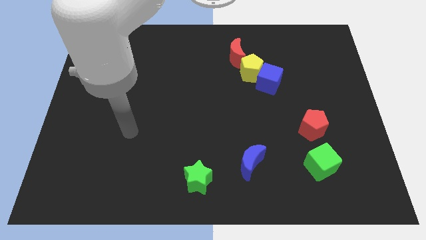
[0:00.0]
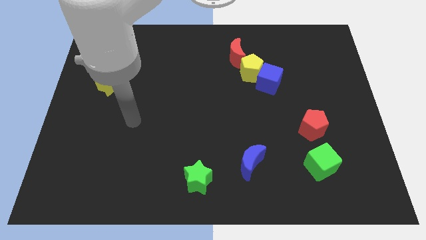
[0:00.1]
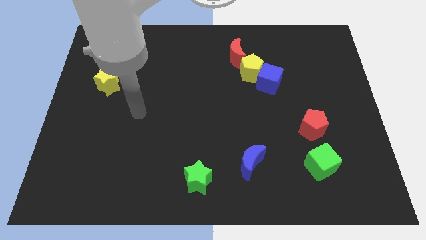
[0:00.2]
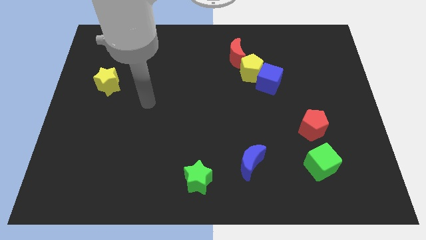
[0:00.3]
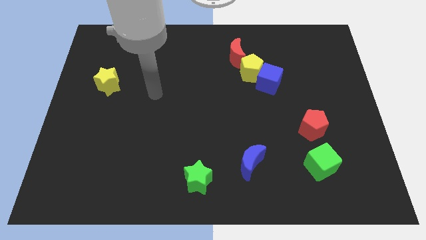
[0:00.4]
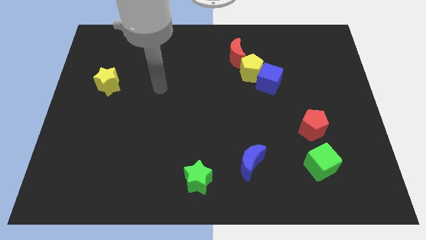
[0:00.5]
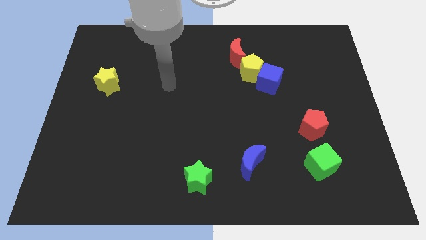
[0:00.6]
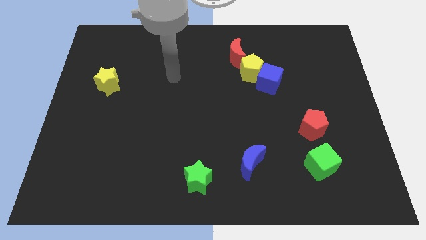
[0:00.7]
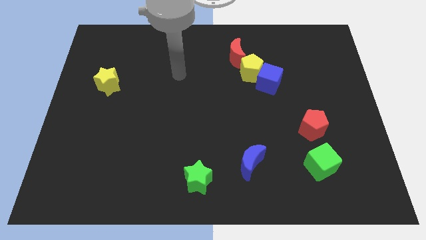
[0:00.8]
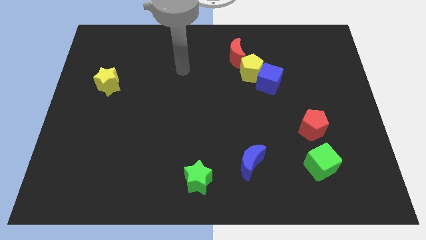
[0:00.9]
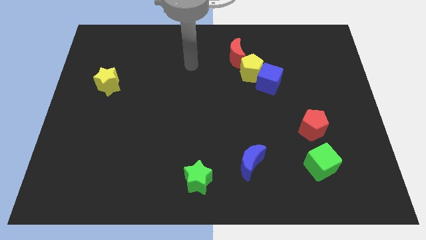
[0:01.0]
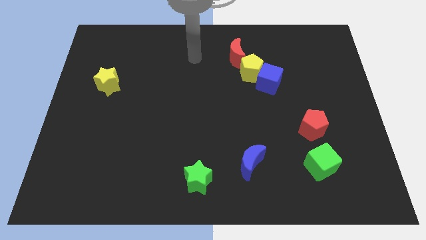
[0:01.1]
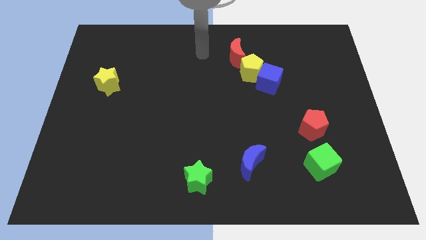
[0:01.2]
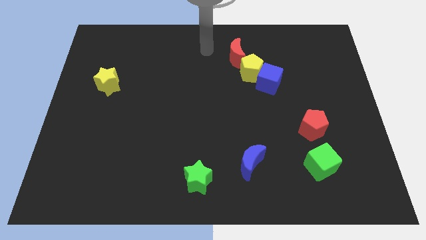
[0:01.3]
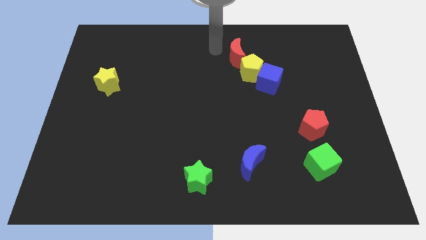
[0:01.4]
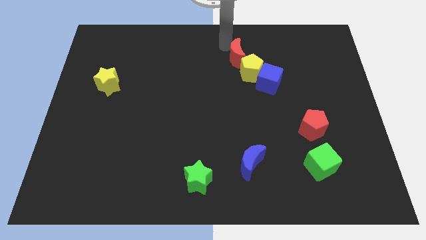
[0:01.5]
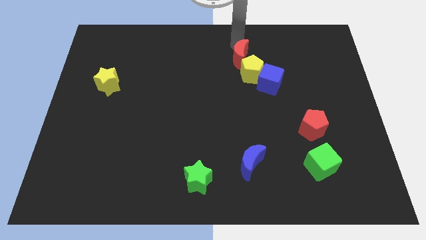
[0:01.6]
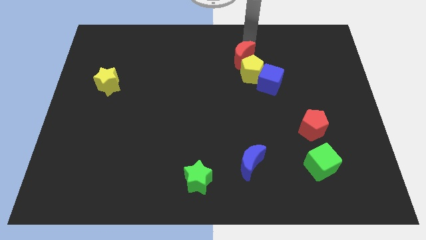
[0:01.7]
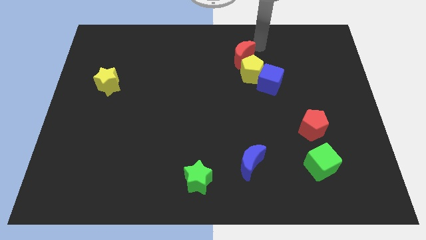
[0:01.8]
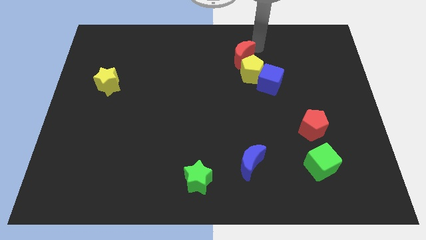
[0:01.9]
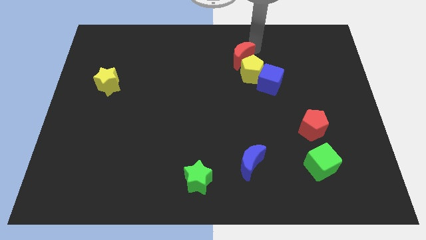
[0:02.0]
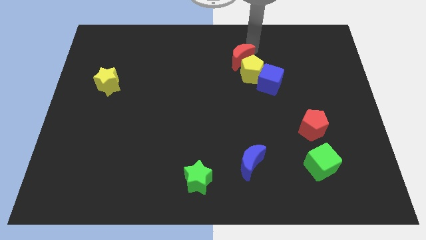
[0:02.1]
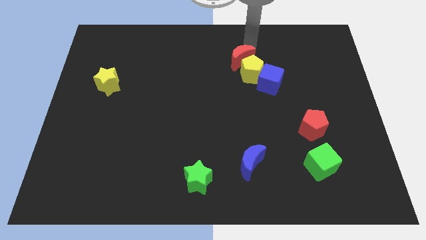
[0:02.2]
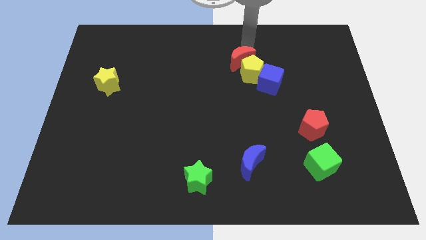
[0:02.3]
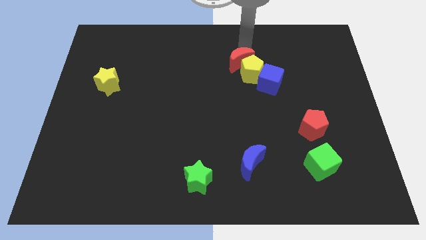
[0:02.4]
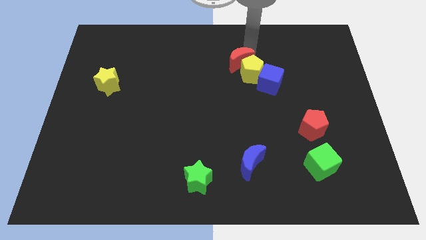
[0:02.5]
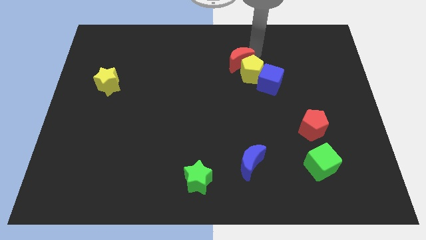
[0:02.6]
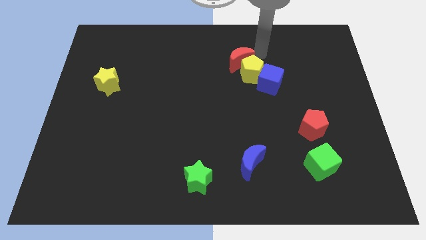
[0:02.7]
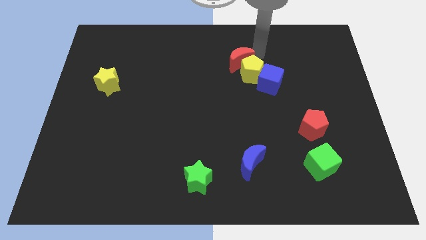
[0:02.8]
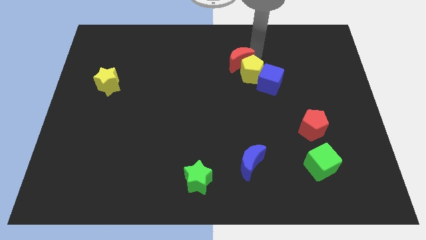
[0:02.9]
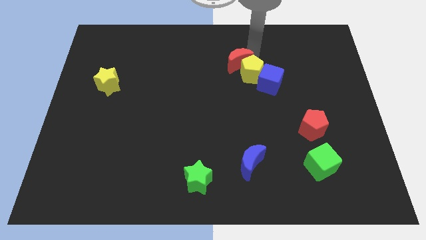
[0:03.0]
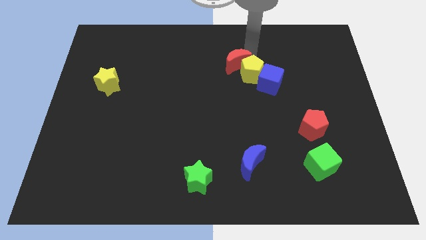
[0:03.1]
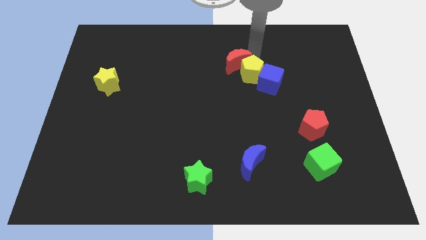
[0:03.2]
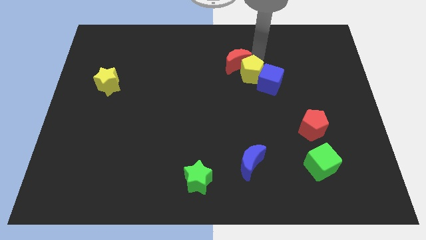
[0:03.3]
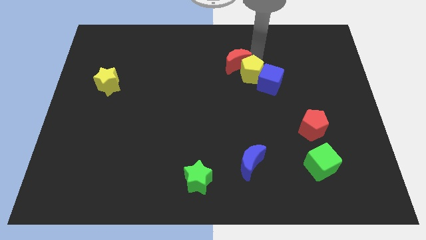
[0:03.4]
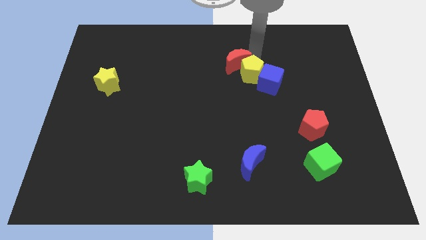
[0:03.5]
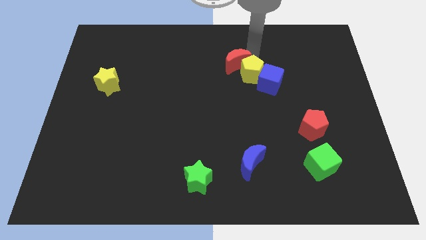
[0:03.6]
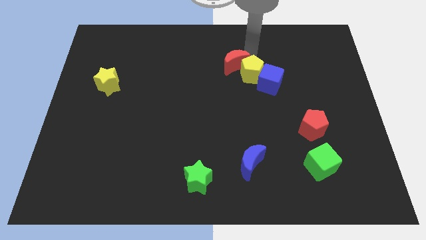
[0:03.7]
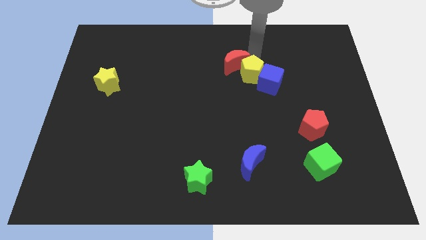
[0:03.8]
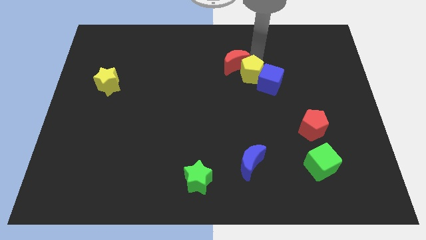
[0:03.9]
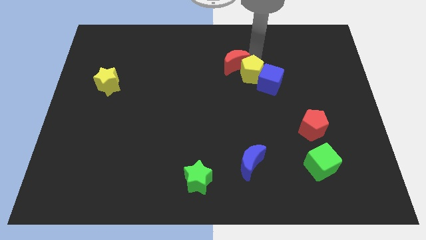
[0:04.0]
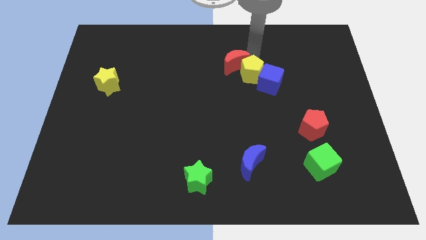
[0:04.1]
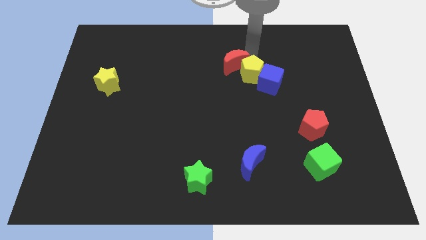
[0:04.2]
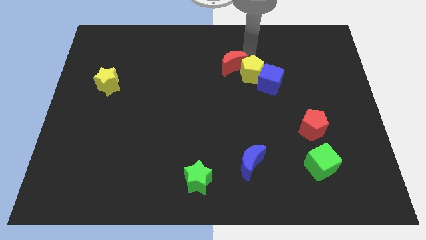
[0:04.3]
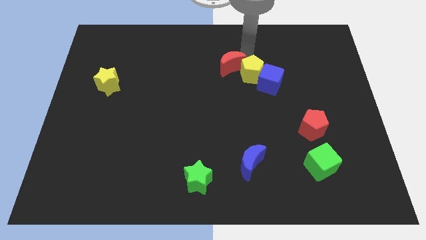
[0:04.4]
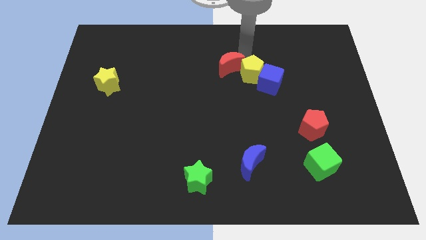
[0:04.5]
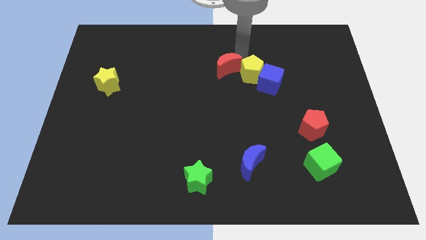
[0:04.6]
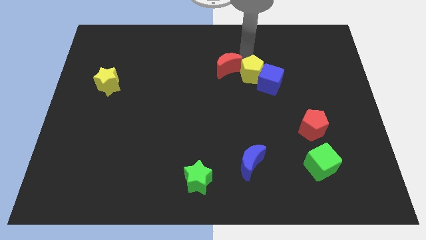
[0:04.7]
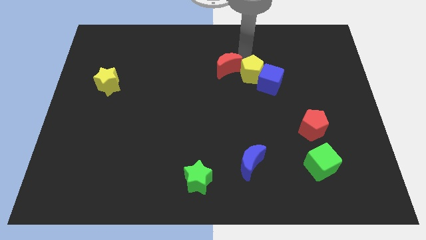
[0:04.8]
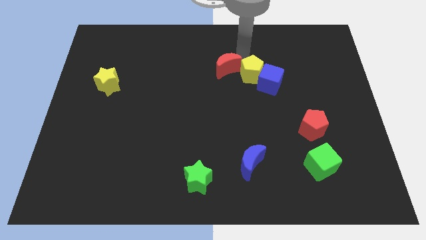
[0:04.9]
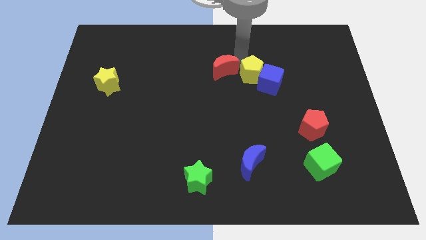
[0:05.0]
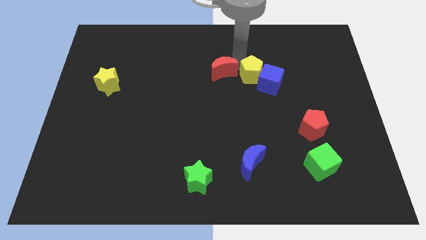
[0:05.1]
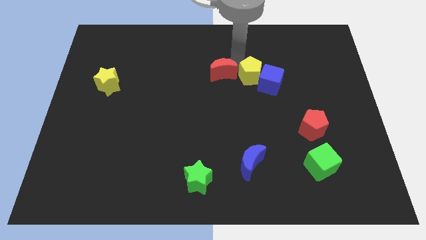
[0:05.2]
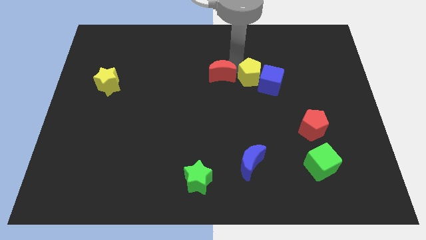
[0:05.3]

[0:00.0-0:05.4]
push the red moon diagonally down and left a little

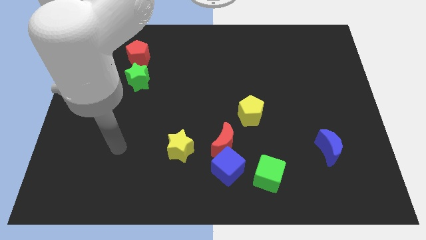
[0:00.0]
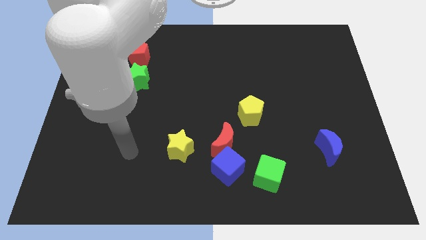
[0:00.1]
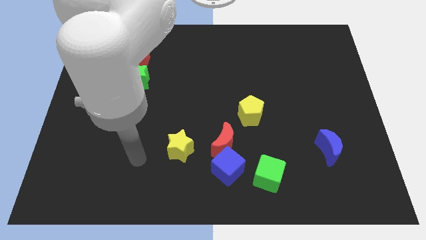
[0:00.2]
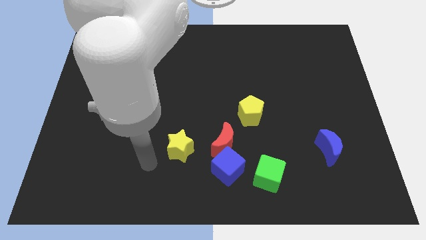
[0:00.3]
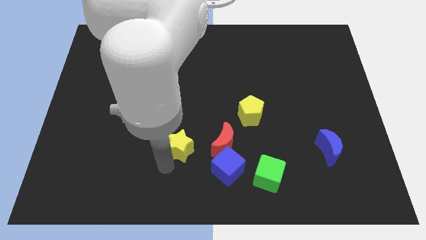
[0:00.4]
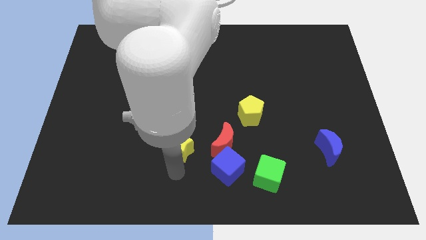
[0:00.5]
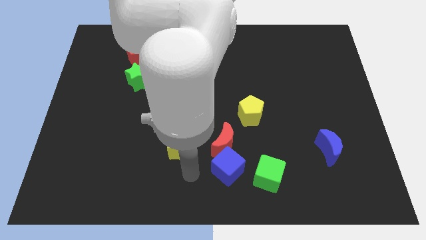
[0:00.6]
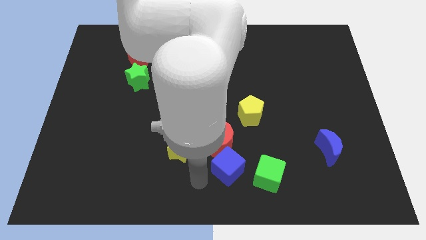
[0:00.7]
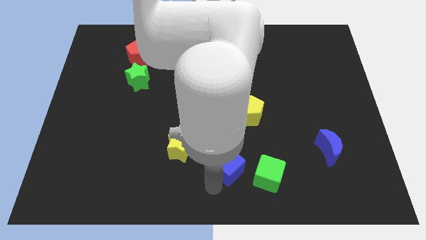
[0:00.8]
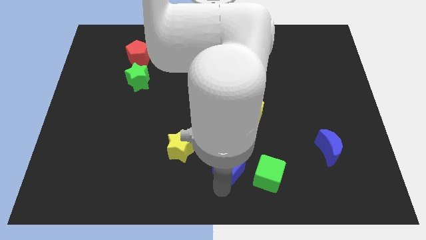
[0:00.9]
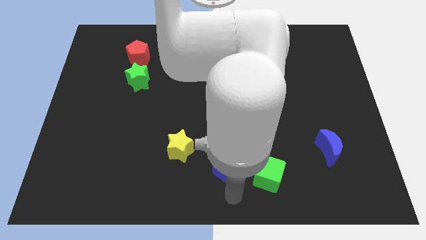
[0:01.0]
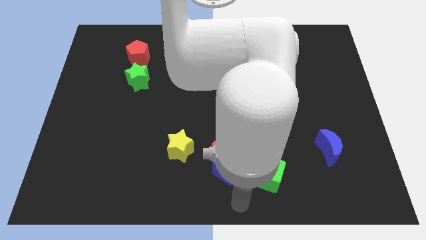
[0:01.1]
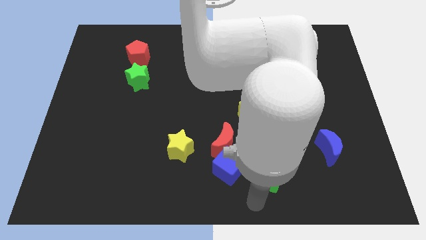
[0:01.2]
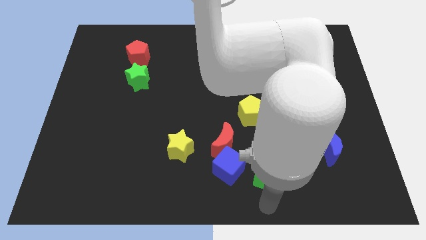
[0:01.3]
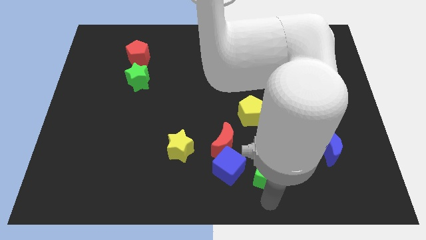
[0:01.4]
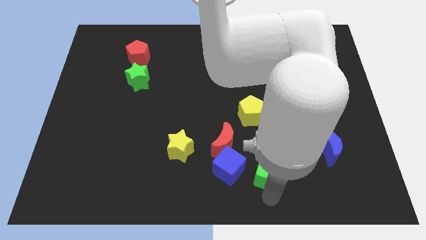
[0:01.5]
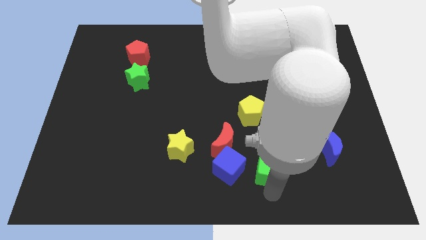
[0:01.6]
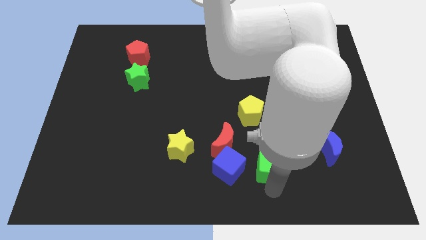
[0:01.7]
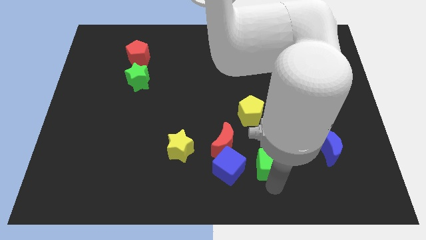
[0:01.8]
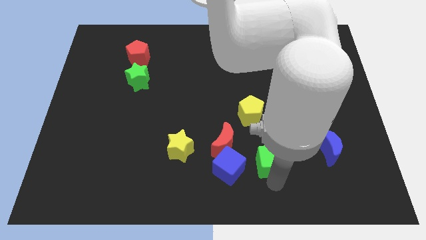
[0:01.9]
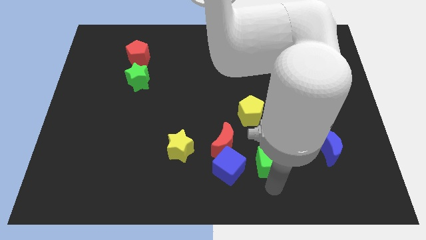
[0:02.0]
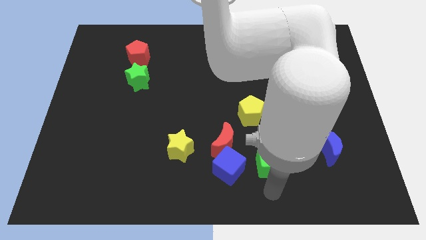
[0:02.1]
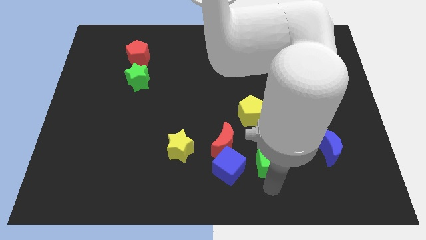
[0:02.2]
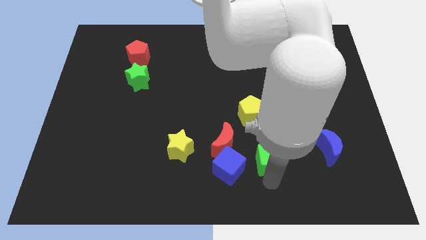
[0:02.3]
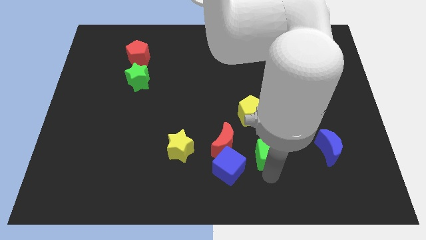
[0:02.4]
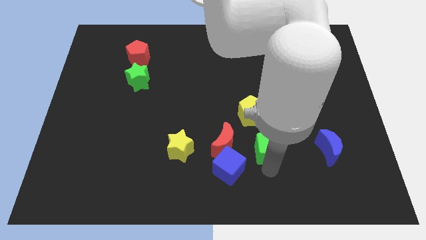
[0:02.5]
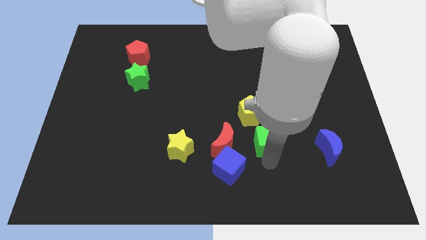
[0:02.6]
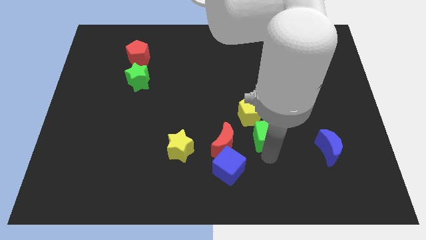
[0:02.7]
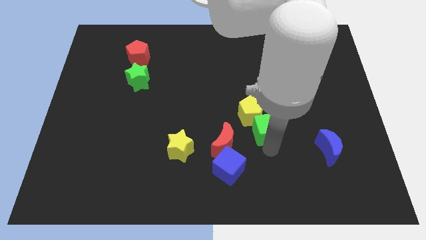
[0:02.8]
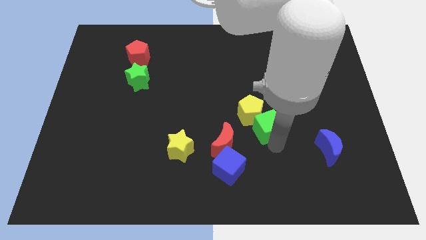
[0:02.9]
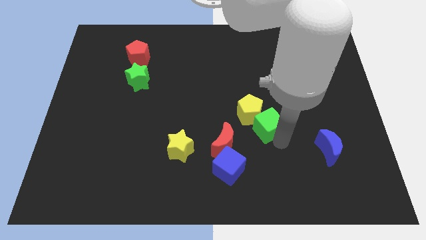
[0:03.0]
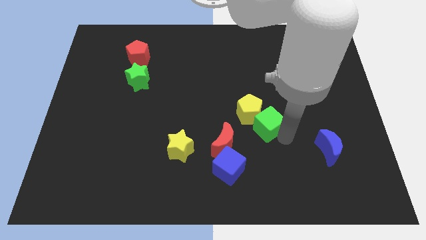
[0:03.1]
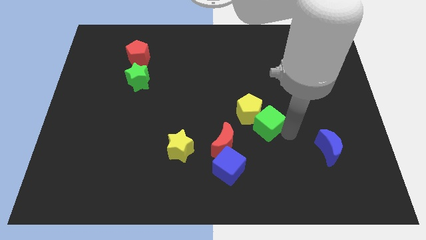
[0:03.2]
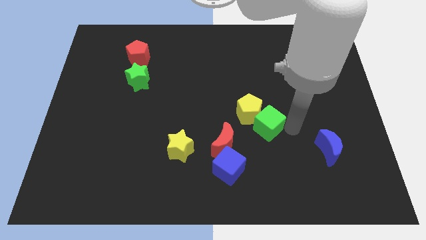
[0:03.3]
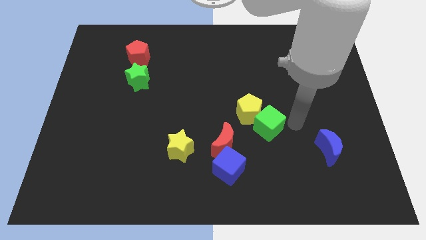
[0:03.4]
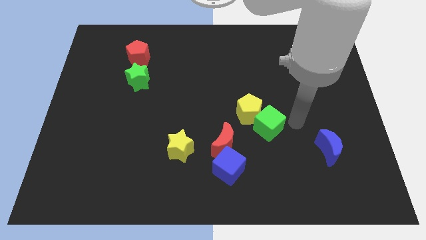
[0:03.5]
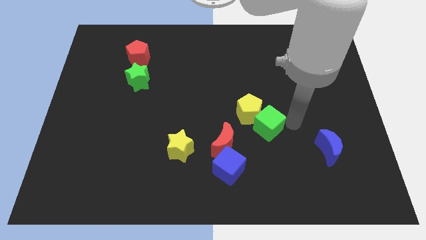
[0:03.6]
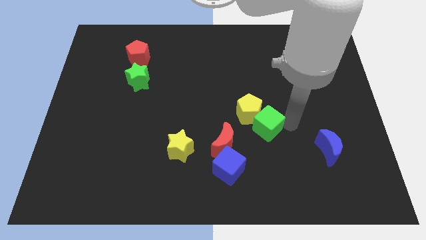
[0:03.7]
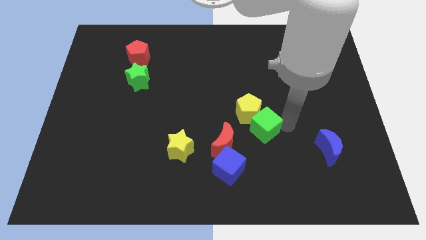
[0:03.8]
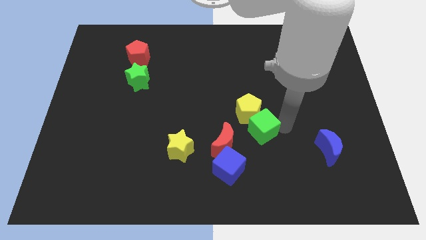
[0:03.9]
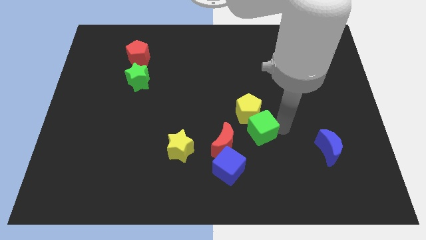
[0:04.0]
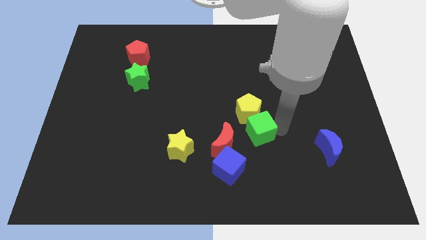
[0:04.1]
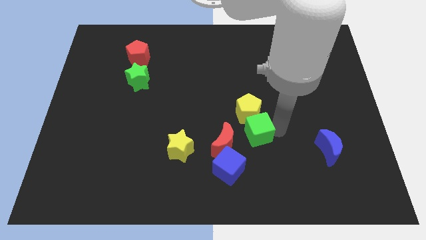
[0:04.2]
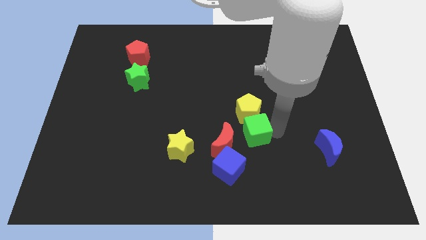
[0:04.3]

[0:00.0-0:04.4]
slightly slide the green cube diagonally up and to the left
